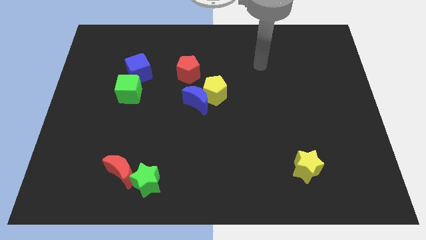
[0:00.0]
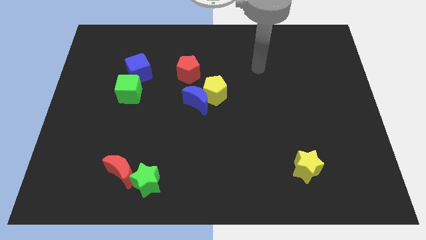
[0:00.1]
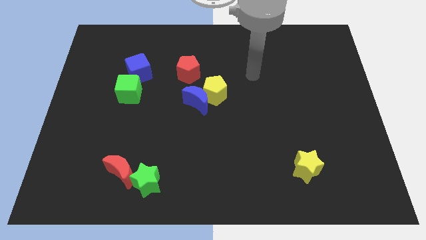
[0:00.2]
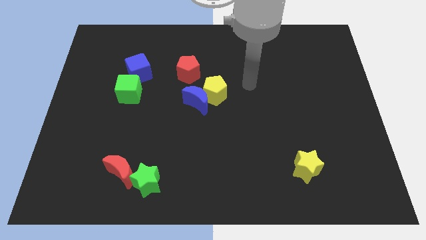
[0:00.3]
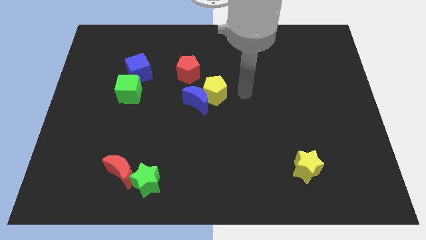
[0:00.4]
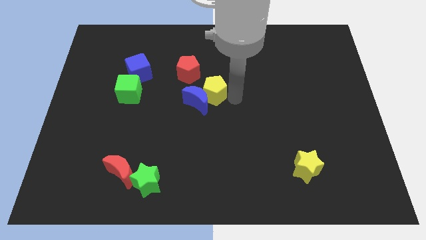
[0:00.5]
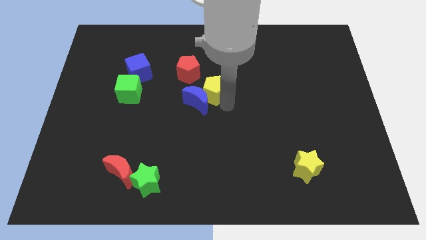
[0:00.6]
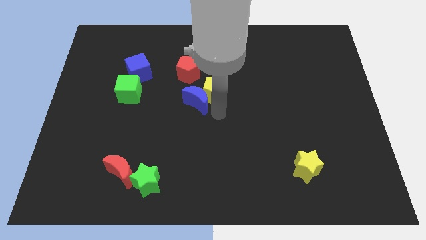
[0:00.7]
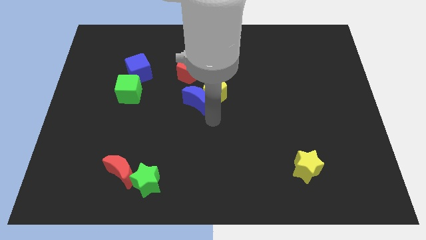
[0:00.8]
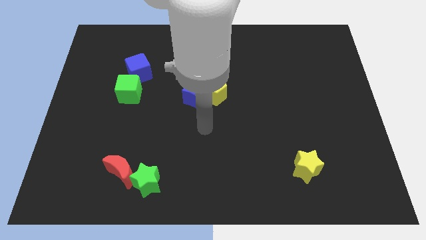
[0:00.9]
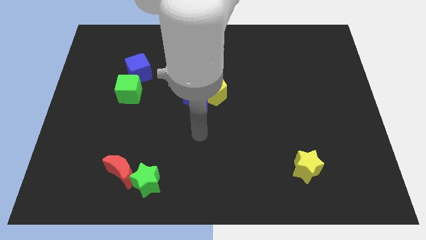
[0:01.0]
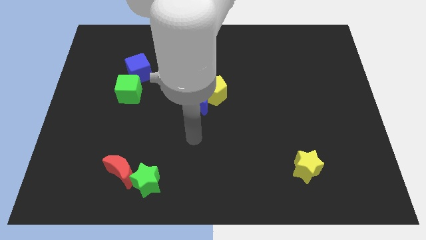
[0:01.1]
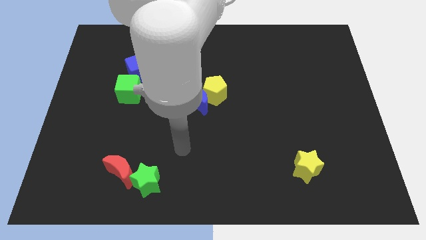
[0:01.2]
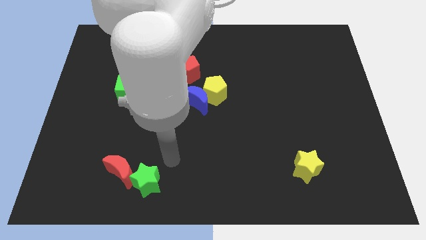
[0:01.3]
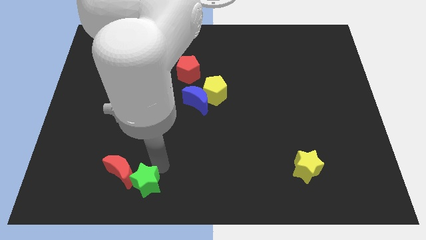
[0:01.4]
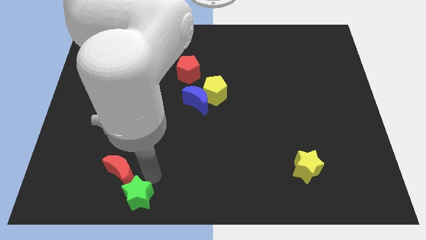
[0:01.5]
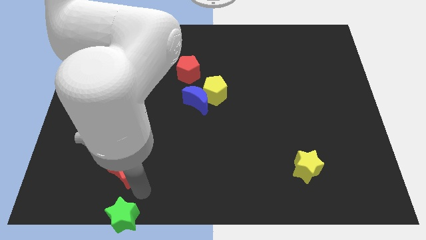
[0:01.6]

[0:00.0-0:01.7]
separate the red moon from the green star

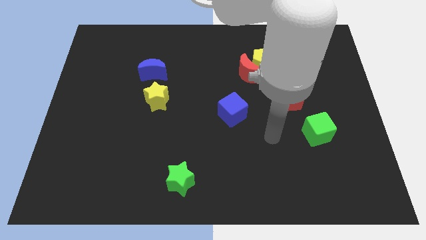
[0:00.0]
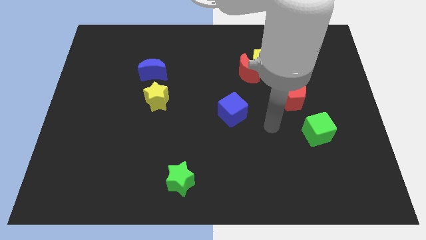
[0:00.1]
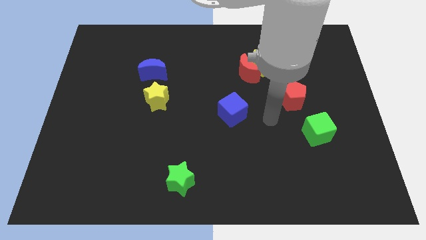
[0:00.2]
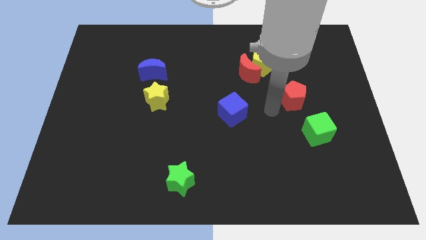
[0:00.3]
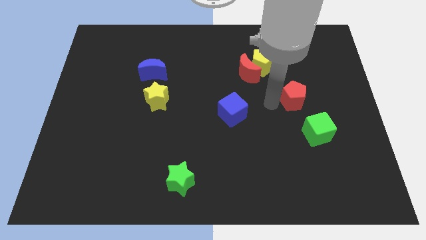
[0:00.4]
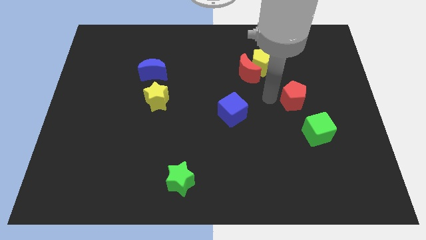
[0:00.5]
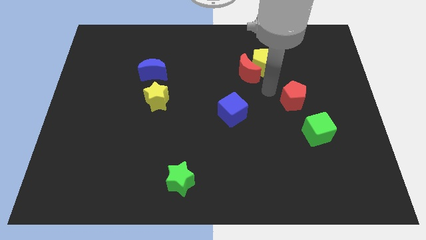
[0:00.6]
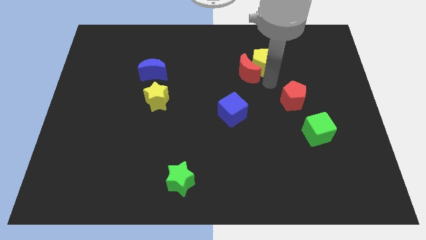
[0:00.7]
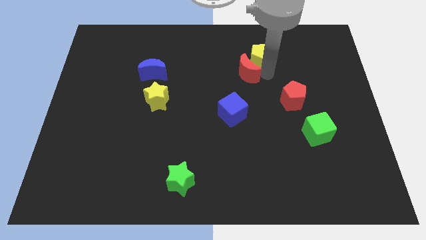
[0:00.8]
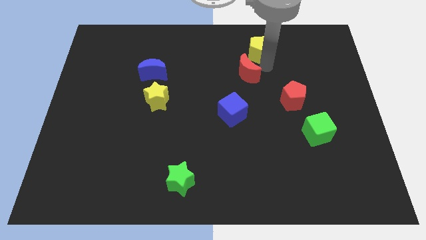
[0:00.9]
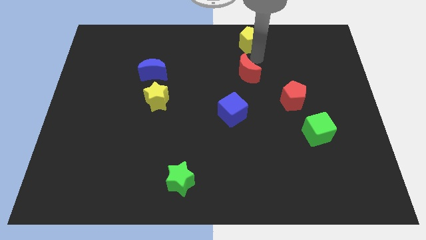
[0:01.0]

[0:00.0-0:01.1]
separate the red moon from the yellow pentagon

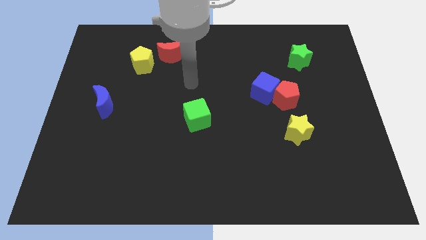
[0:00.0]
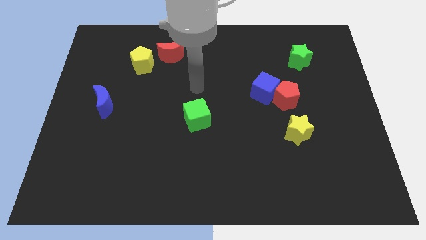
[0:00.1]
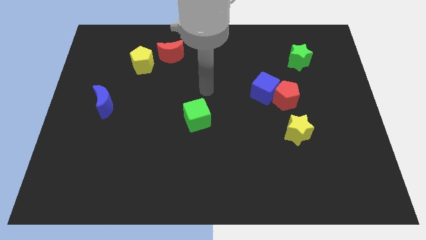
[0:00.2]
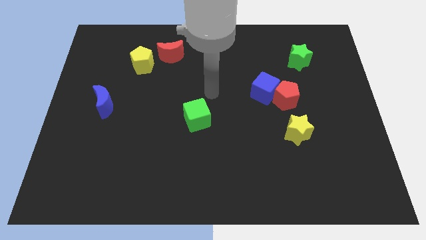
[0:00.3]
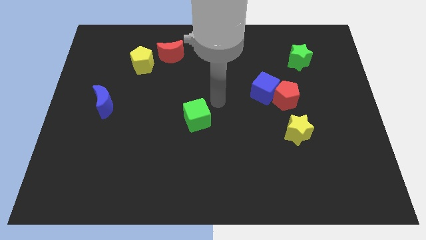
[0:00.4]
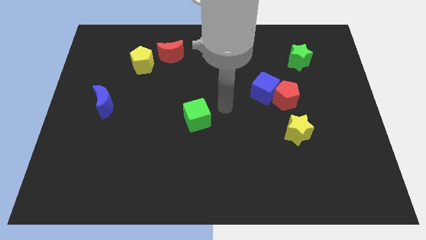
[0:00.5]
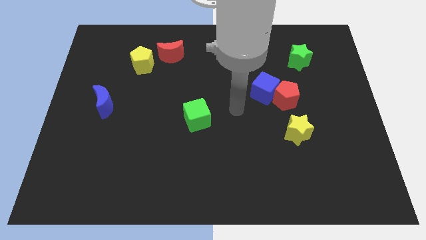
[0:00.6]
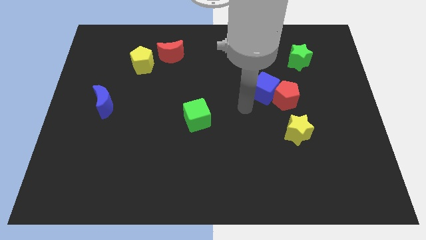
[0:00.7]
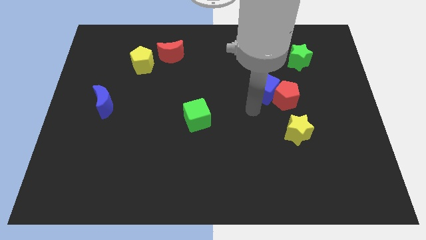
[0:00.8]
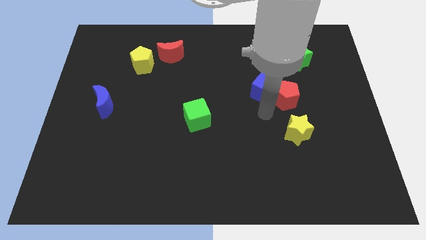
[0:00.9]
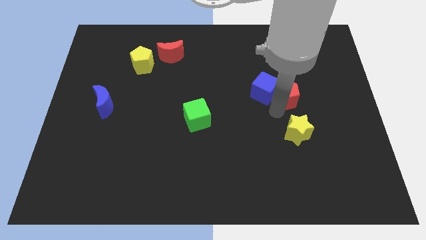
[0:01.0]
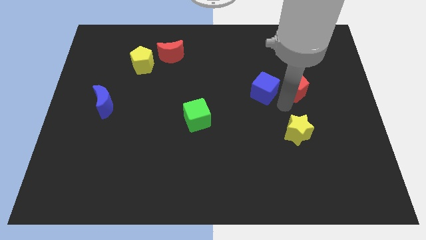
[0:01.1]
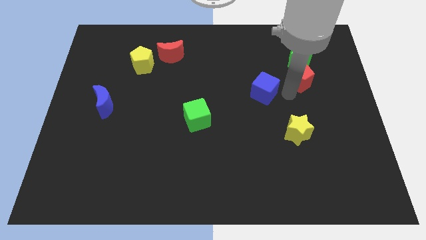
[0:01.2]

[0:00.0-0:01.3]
separate the blue cube from the red pentagon

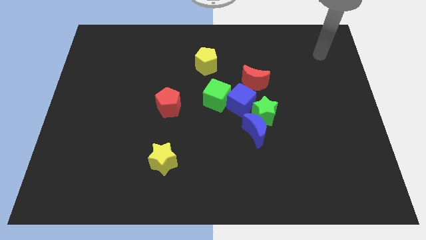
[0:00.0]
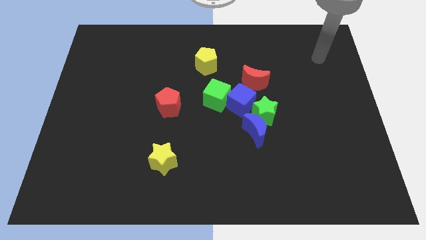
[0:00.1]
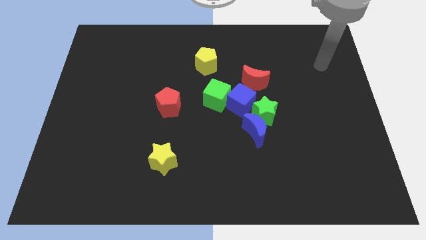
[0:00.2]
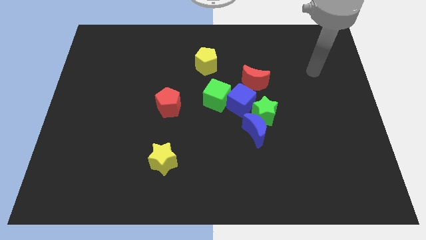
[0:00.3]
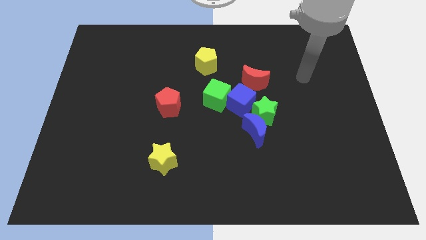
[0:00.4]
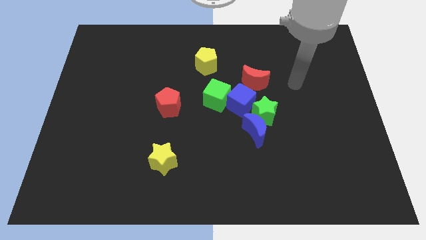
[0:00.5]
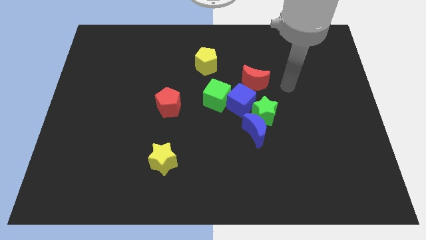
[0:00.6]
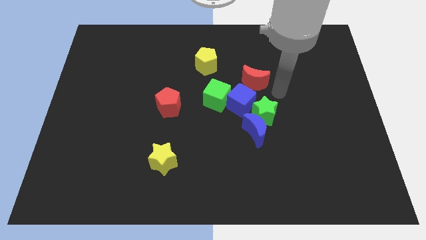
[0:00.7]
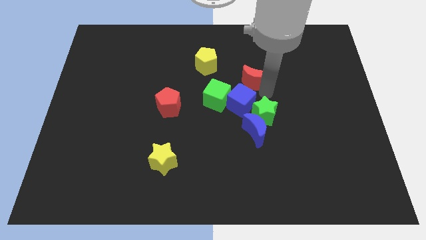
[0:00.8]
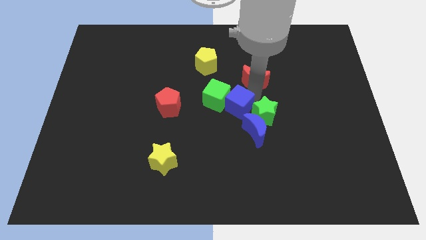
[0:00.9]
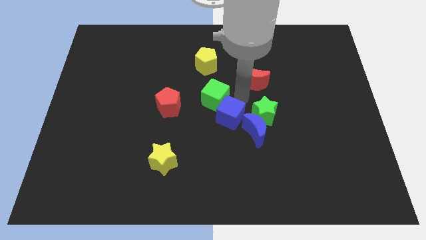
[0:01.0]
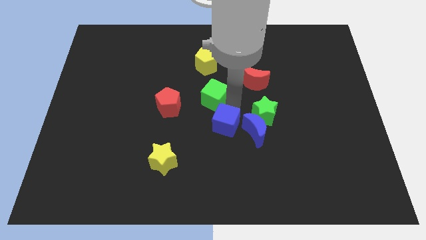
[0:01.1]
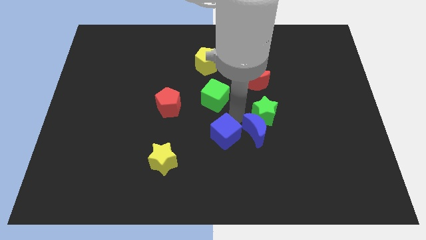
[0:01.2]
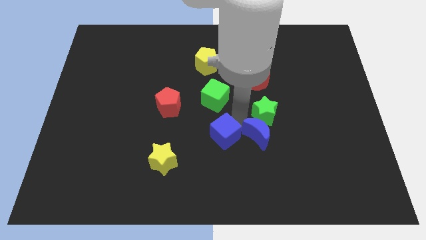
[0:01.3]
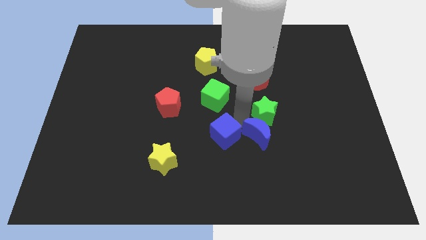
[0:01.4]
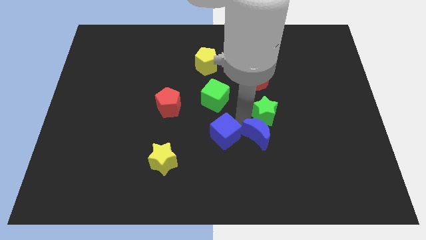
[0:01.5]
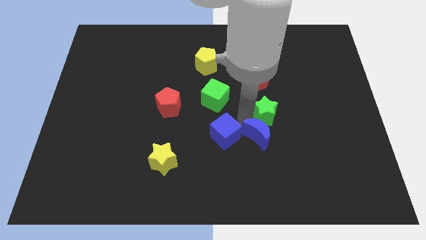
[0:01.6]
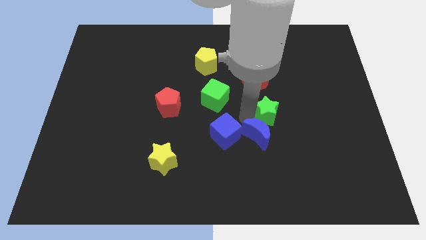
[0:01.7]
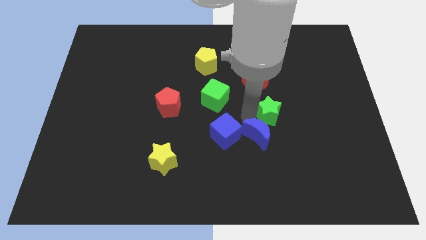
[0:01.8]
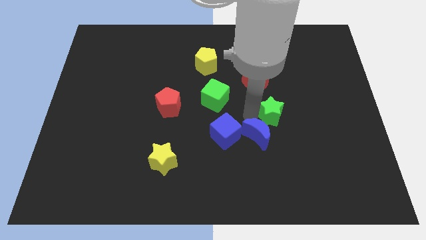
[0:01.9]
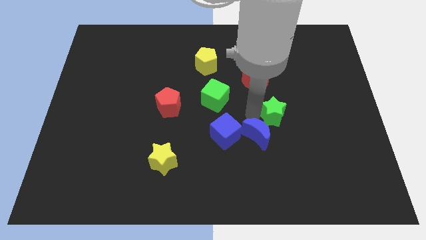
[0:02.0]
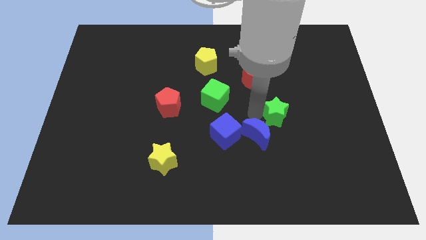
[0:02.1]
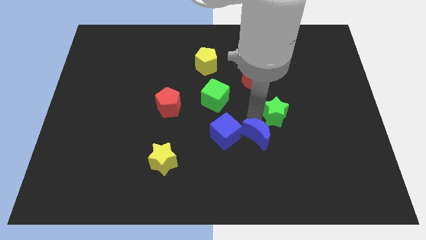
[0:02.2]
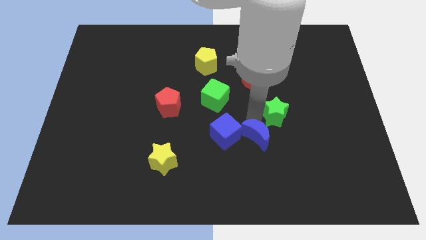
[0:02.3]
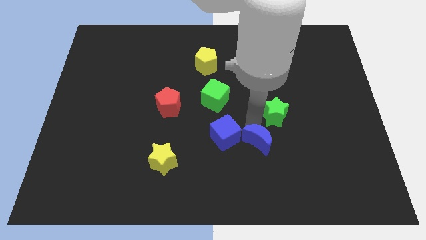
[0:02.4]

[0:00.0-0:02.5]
move the green star away from the blue moon and blue cube

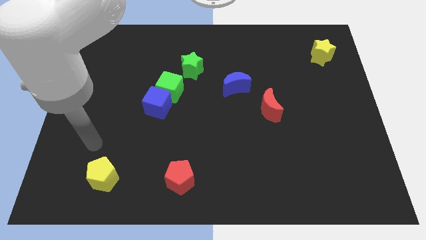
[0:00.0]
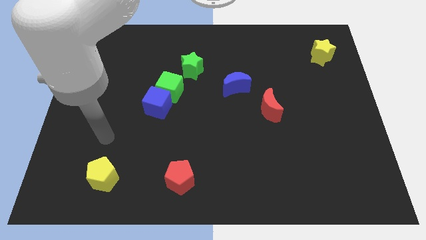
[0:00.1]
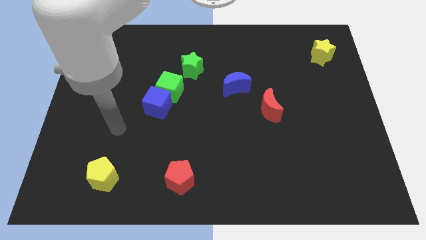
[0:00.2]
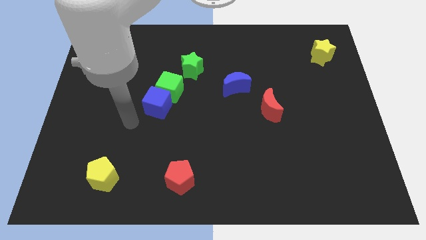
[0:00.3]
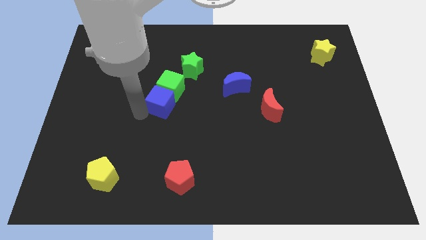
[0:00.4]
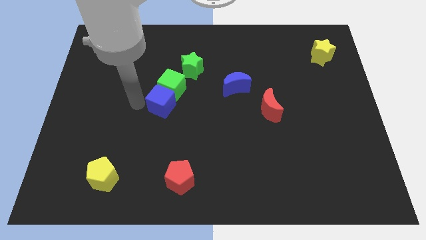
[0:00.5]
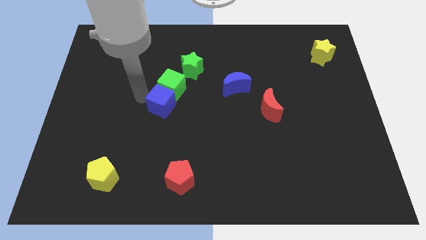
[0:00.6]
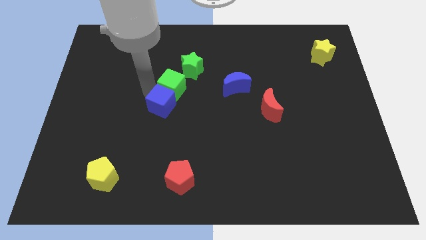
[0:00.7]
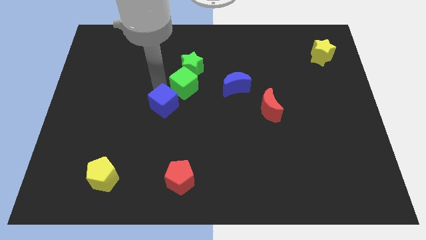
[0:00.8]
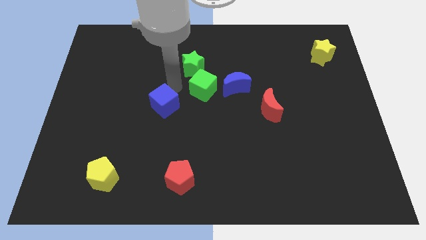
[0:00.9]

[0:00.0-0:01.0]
move the blue cube away from the green cube

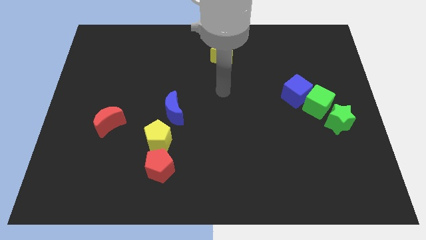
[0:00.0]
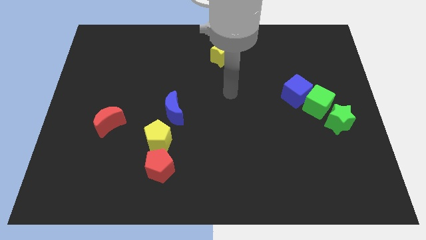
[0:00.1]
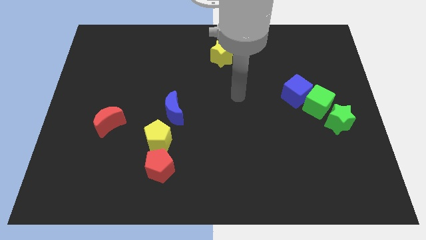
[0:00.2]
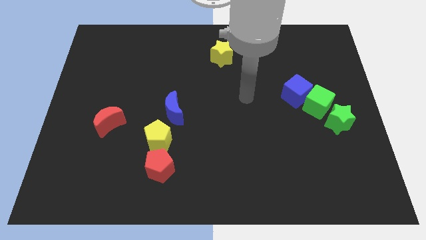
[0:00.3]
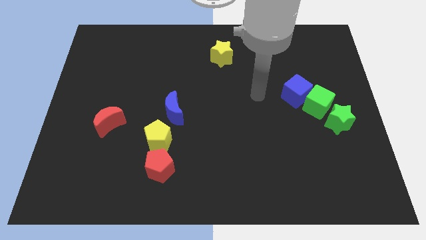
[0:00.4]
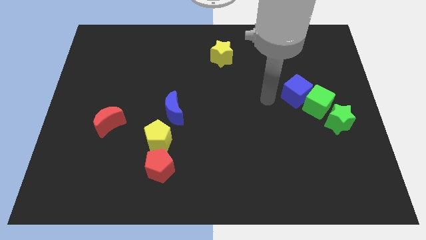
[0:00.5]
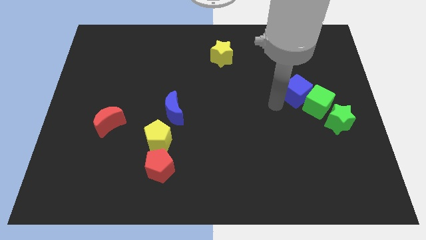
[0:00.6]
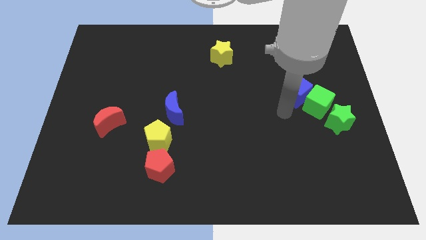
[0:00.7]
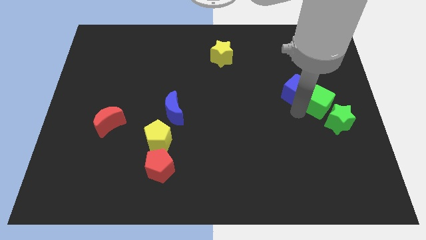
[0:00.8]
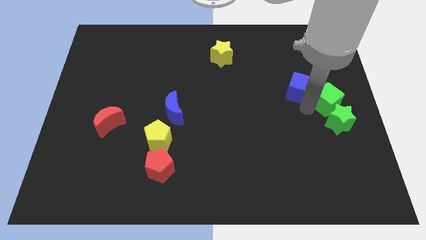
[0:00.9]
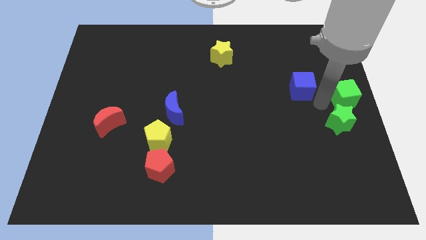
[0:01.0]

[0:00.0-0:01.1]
separate the blue cube from the green cube

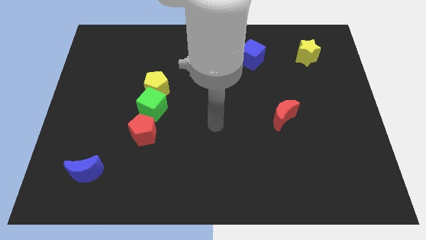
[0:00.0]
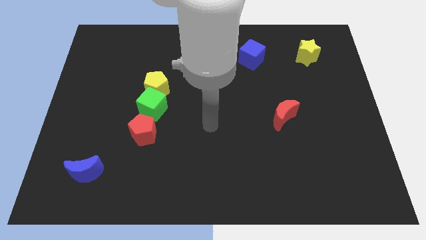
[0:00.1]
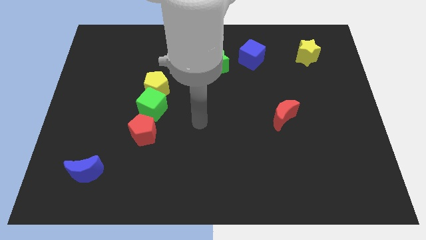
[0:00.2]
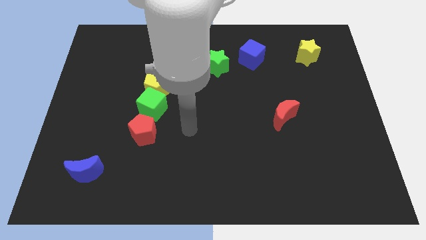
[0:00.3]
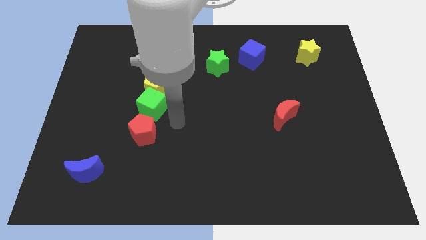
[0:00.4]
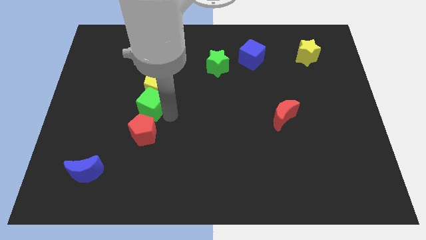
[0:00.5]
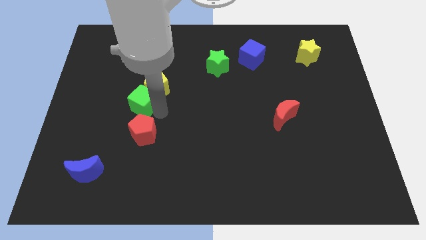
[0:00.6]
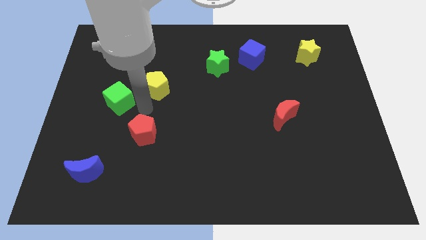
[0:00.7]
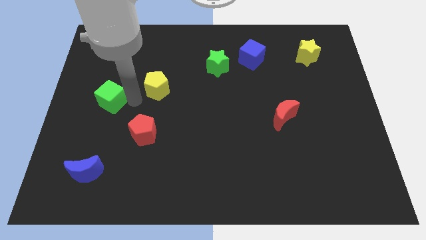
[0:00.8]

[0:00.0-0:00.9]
pull the yellow pentagon apart from the green cube
